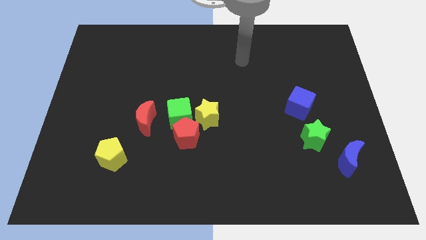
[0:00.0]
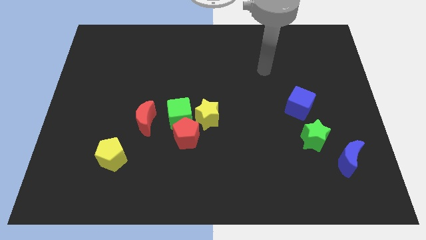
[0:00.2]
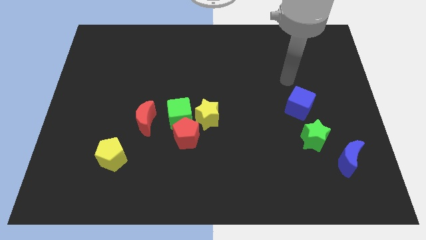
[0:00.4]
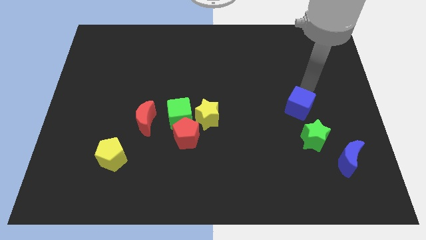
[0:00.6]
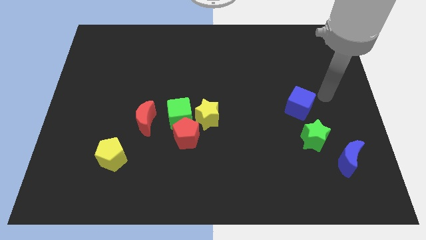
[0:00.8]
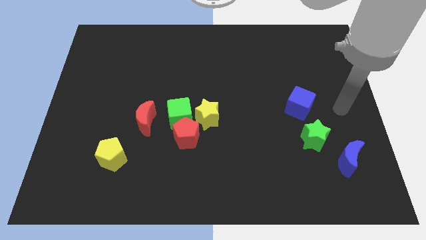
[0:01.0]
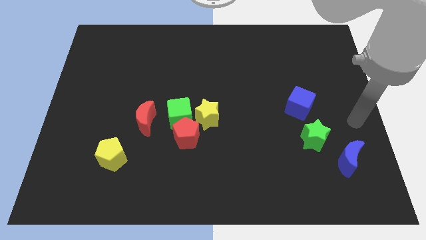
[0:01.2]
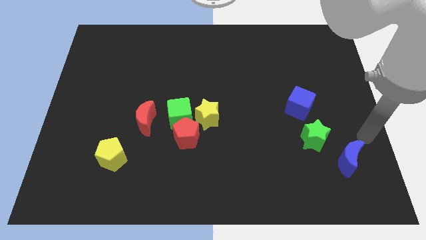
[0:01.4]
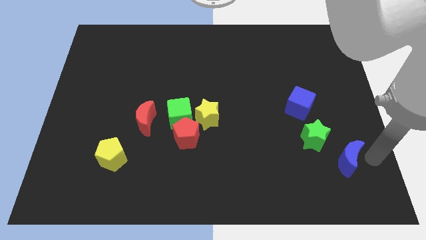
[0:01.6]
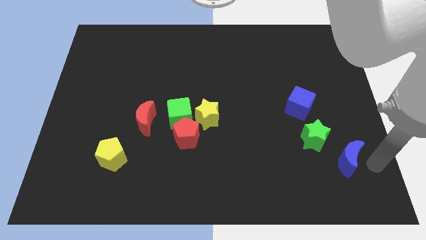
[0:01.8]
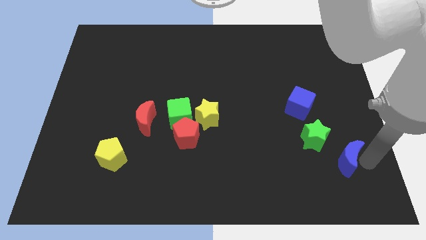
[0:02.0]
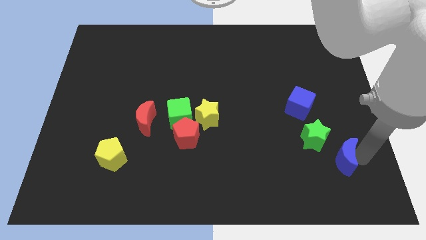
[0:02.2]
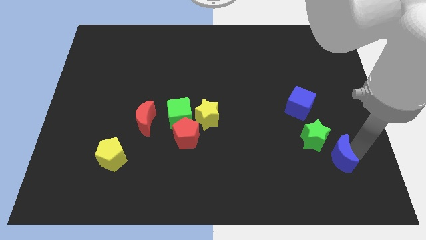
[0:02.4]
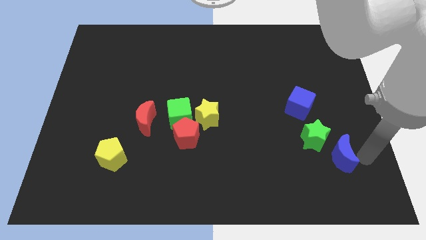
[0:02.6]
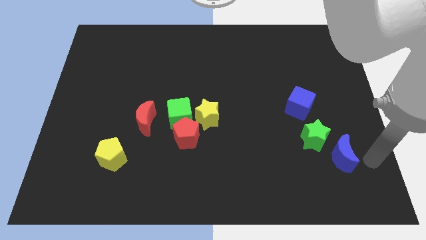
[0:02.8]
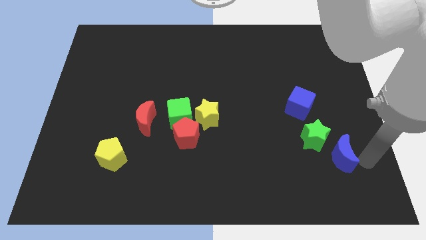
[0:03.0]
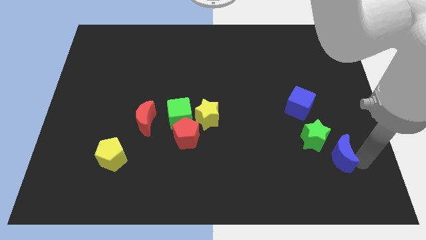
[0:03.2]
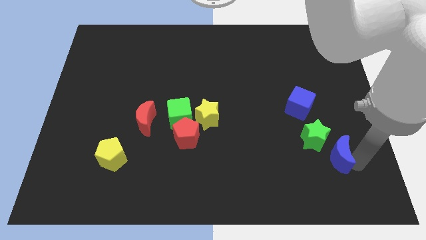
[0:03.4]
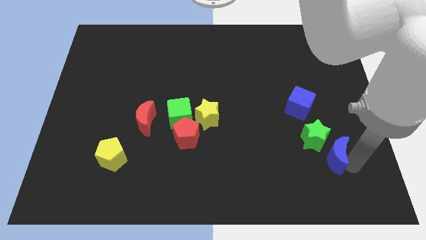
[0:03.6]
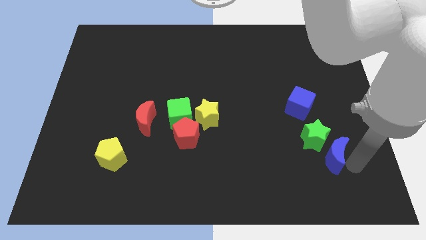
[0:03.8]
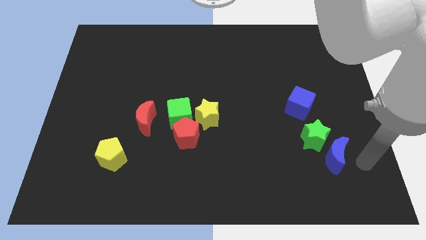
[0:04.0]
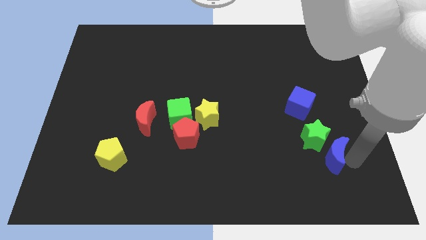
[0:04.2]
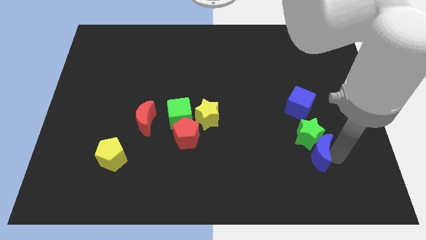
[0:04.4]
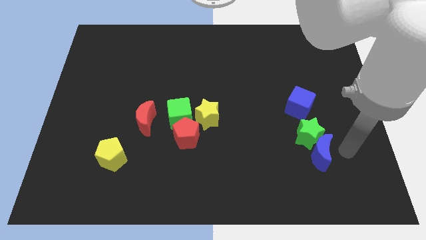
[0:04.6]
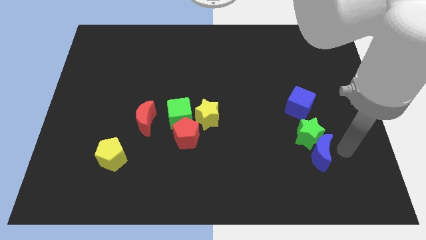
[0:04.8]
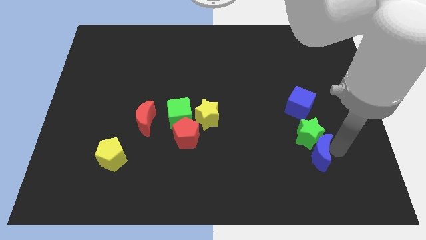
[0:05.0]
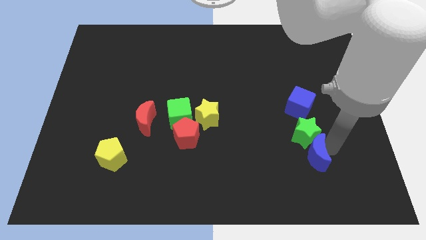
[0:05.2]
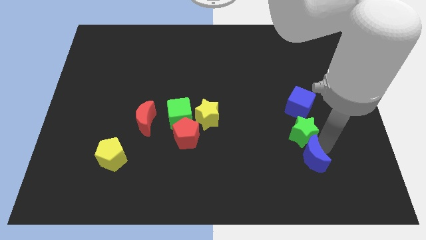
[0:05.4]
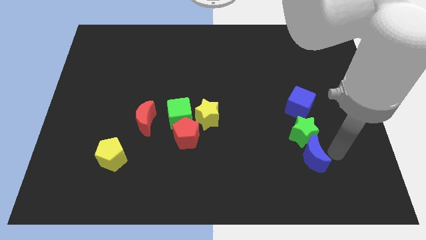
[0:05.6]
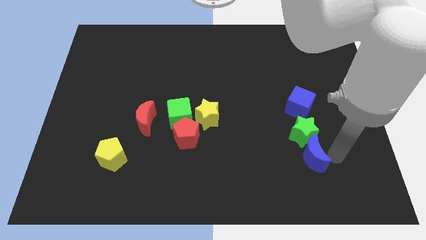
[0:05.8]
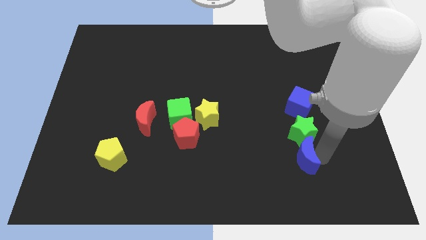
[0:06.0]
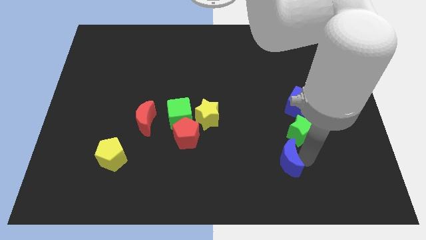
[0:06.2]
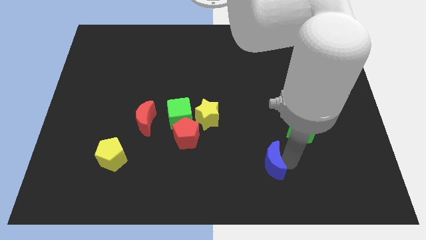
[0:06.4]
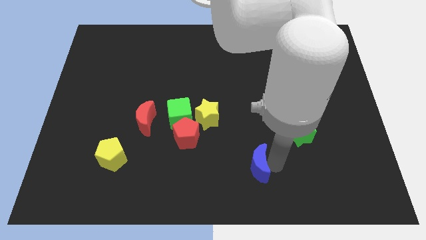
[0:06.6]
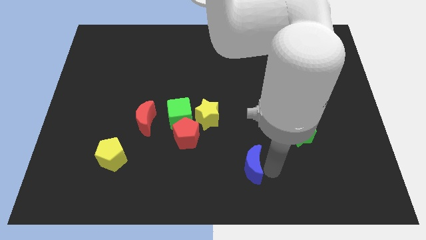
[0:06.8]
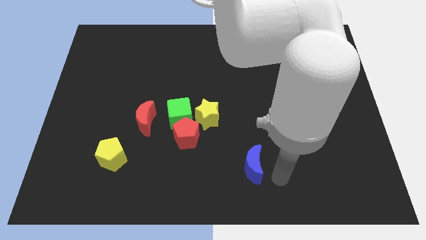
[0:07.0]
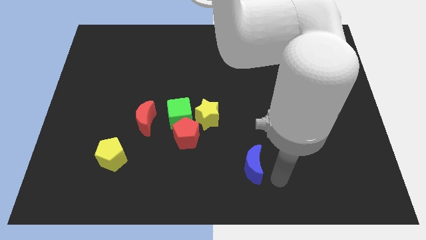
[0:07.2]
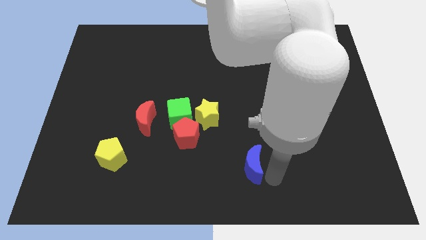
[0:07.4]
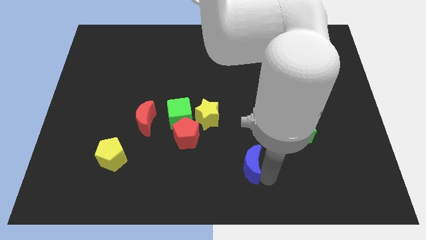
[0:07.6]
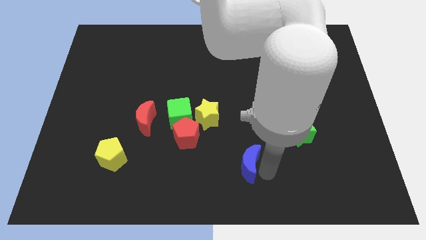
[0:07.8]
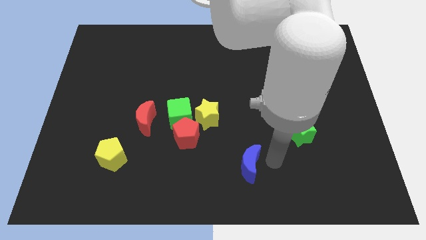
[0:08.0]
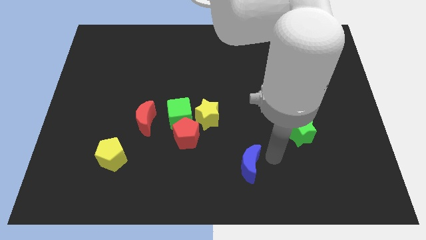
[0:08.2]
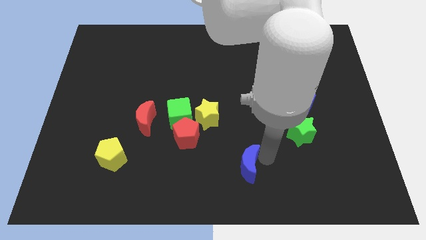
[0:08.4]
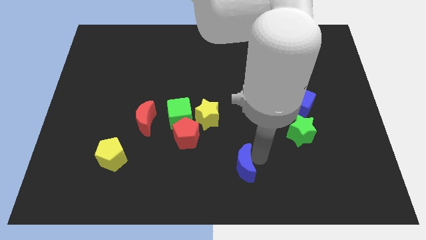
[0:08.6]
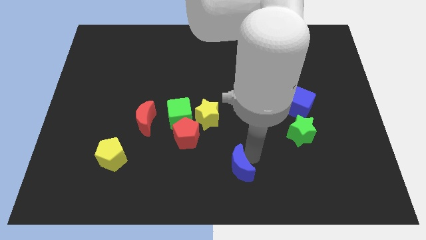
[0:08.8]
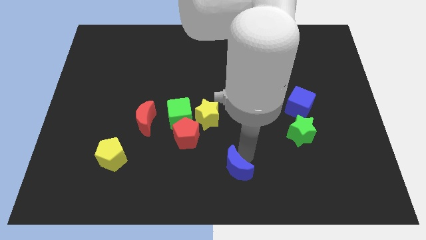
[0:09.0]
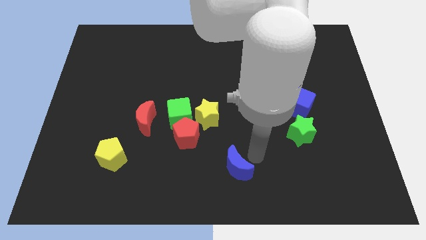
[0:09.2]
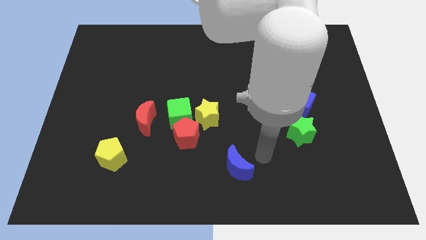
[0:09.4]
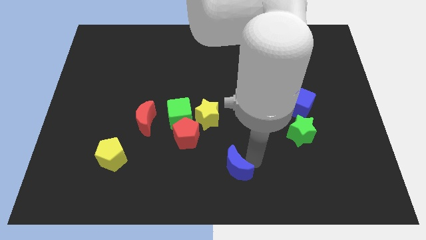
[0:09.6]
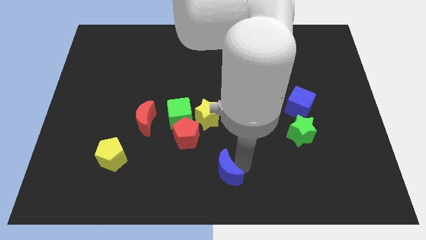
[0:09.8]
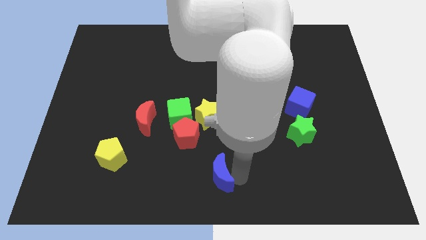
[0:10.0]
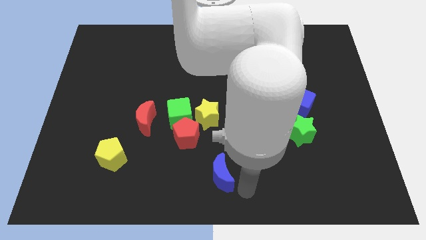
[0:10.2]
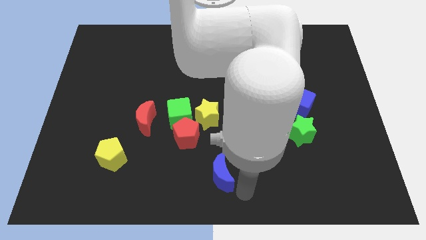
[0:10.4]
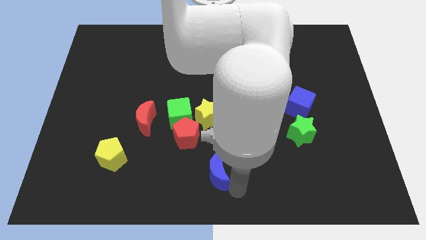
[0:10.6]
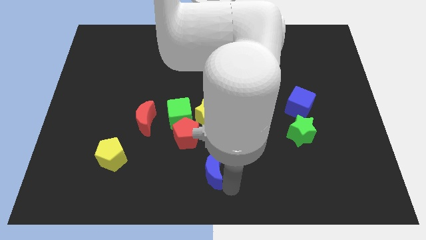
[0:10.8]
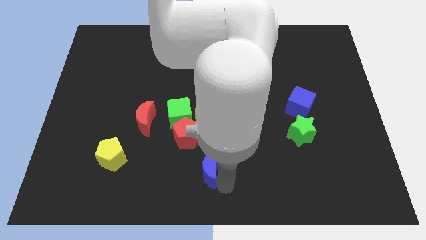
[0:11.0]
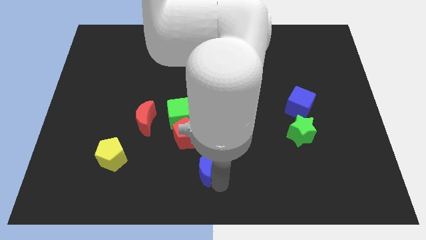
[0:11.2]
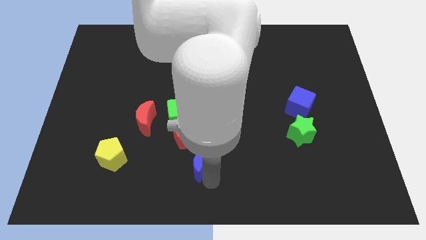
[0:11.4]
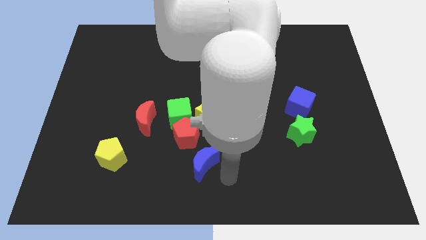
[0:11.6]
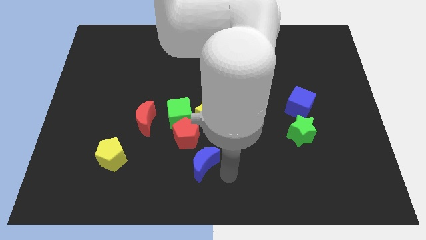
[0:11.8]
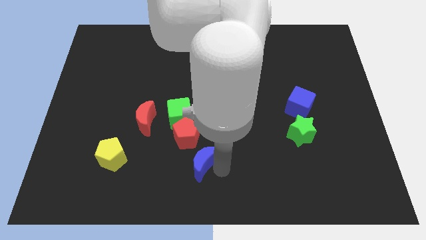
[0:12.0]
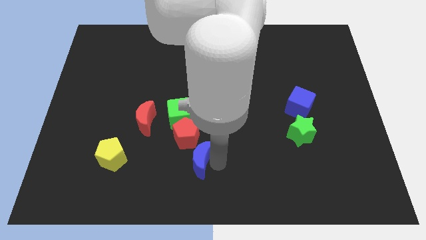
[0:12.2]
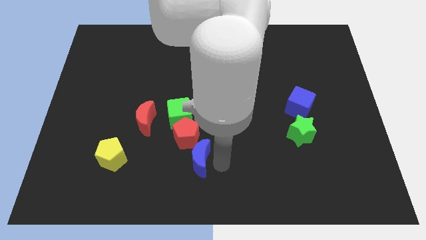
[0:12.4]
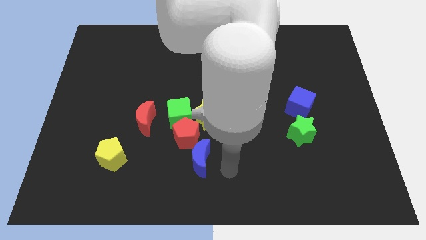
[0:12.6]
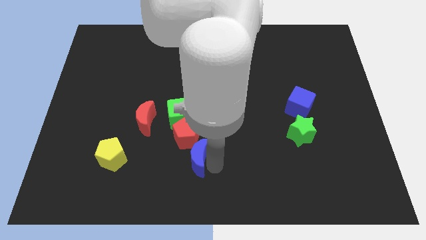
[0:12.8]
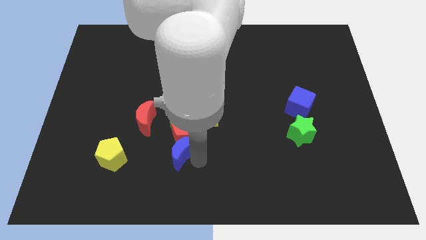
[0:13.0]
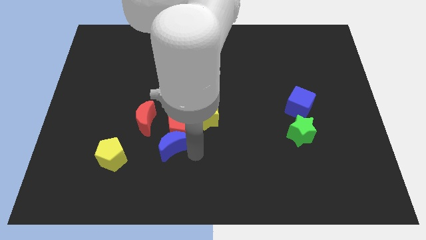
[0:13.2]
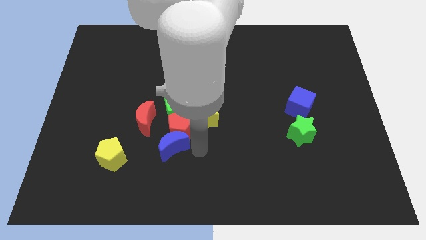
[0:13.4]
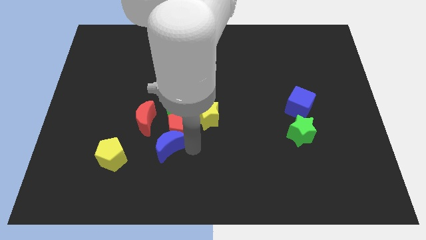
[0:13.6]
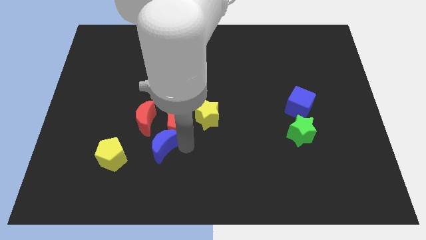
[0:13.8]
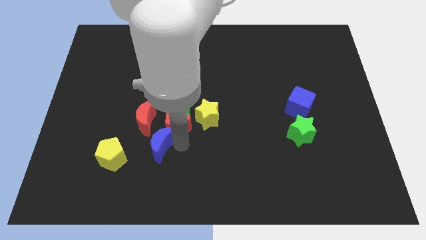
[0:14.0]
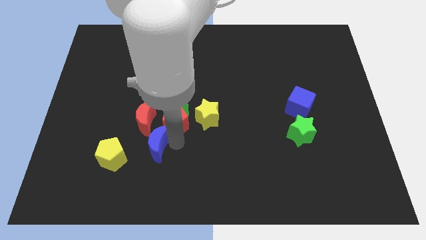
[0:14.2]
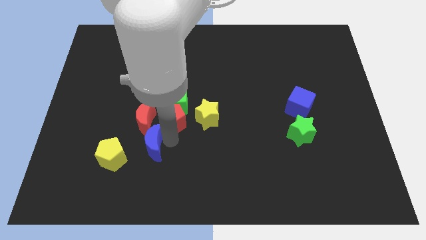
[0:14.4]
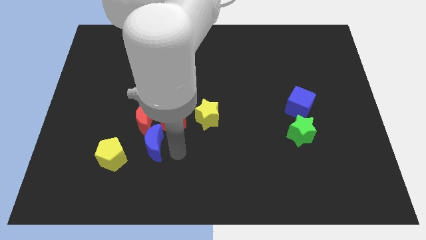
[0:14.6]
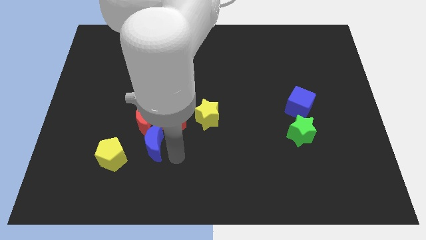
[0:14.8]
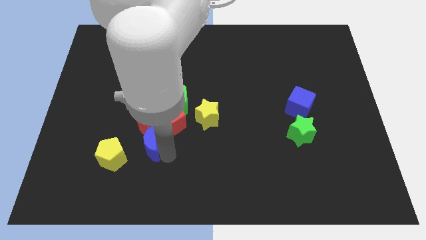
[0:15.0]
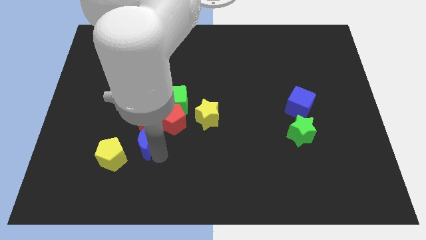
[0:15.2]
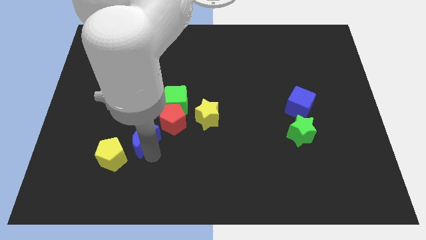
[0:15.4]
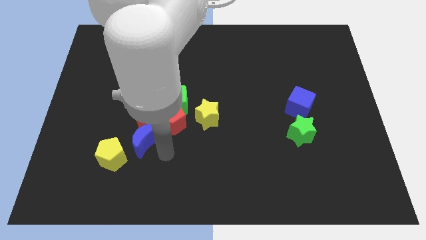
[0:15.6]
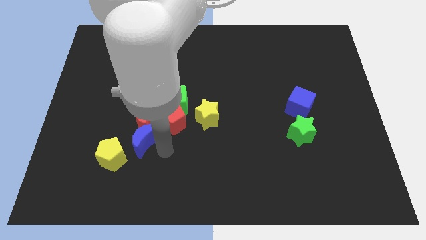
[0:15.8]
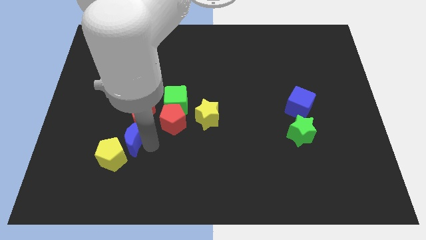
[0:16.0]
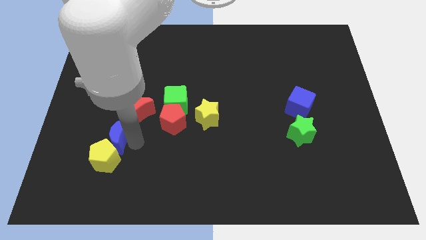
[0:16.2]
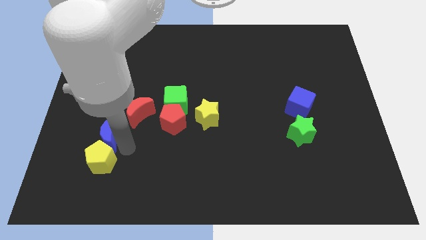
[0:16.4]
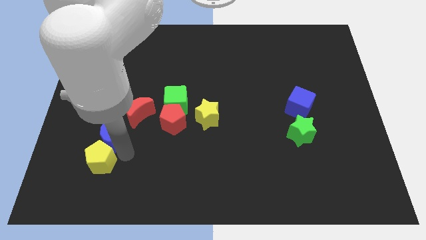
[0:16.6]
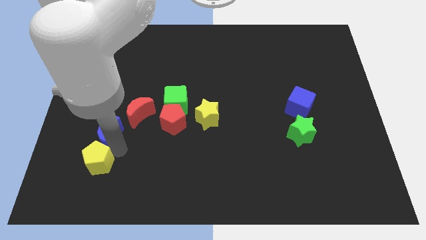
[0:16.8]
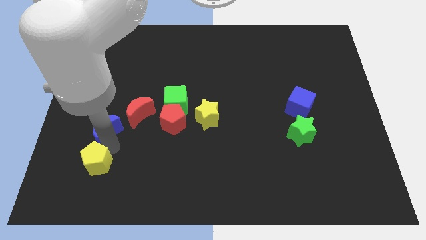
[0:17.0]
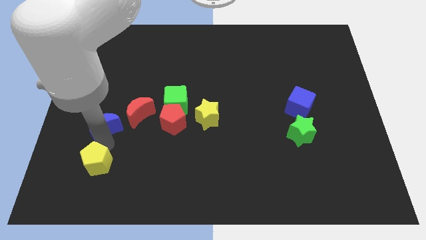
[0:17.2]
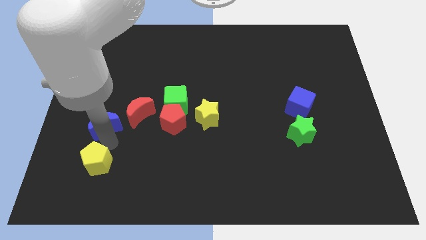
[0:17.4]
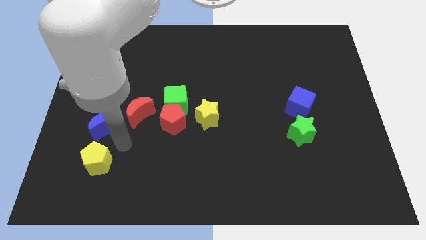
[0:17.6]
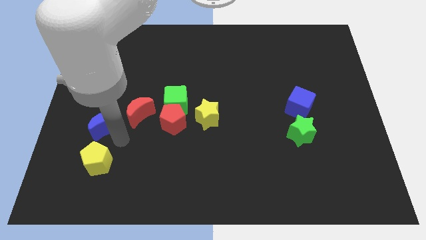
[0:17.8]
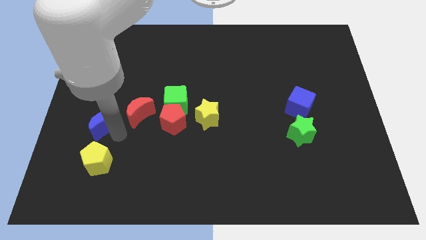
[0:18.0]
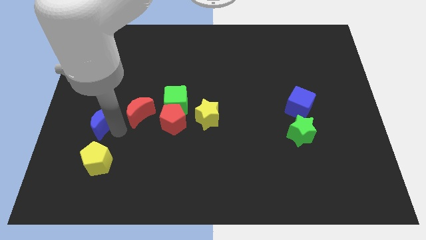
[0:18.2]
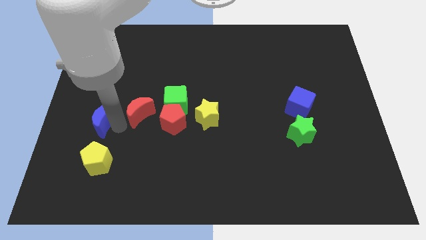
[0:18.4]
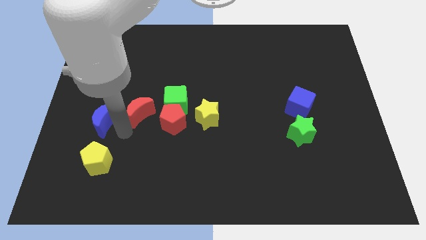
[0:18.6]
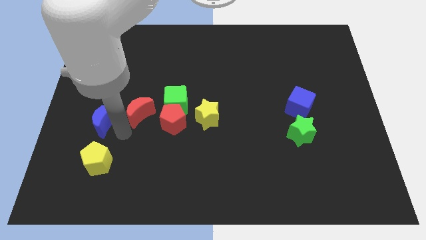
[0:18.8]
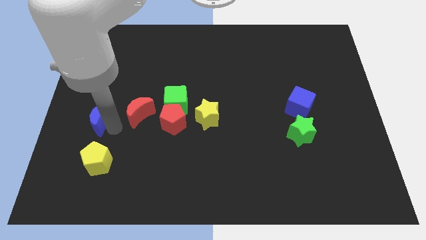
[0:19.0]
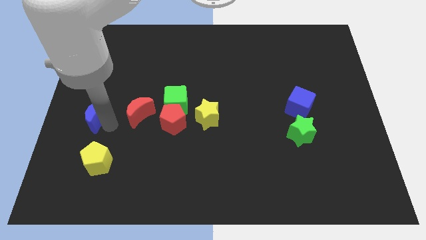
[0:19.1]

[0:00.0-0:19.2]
push the blue moon to the left side
